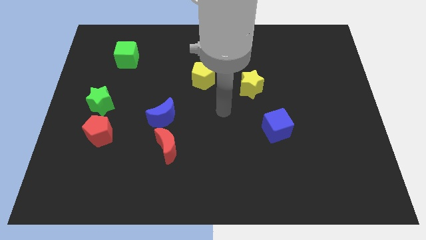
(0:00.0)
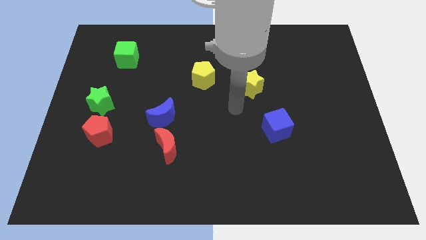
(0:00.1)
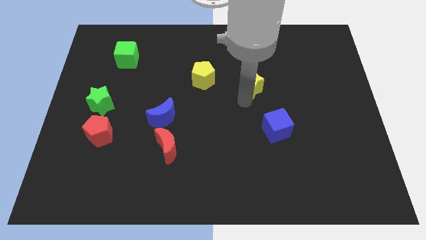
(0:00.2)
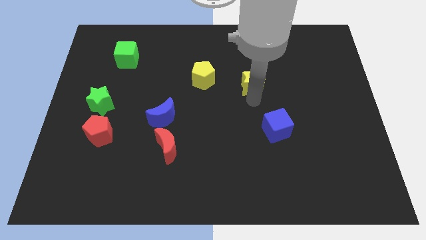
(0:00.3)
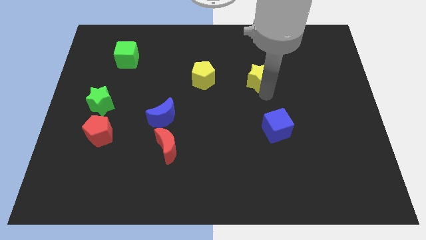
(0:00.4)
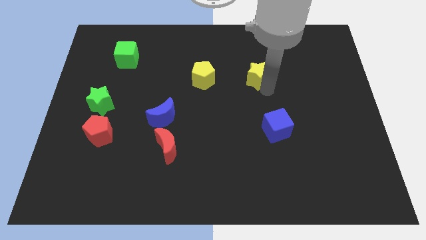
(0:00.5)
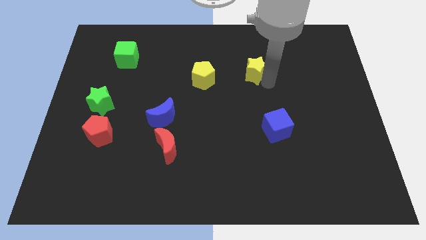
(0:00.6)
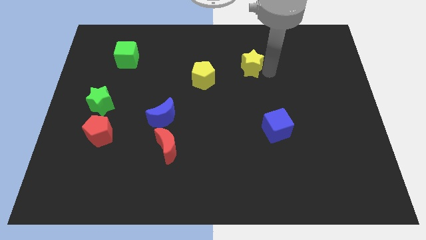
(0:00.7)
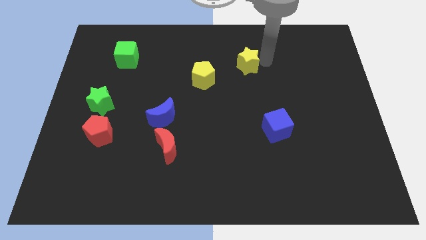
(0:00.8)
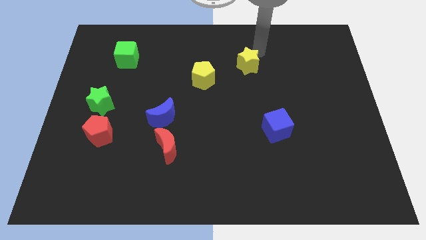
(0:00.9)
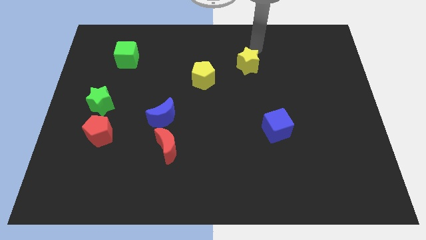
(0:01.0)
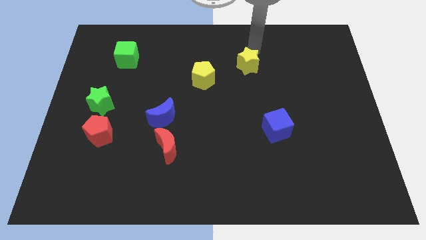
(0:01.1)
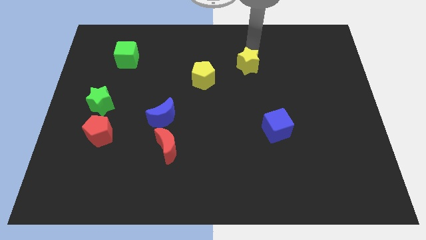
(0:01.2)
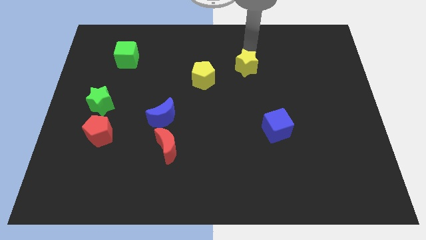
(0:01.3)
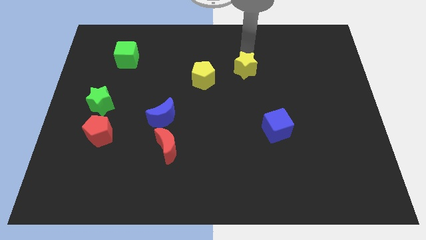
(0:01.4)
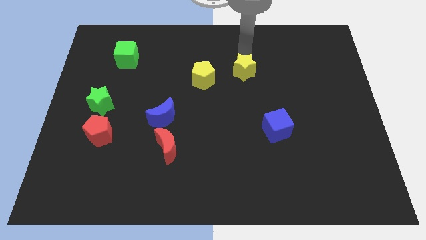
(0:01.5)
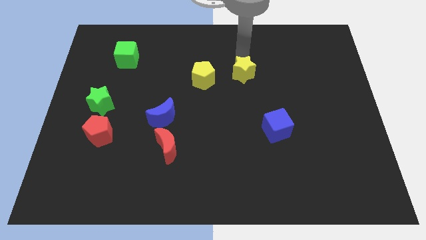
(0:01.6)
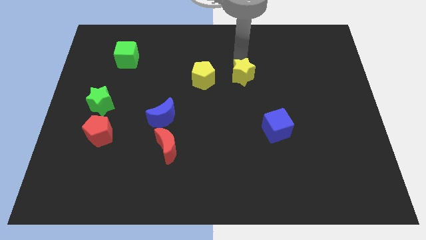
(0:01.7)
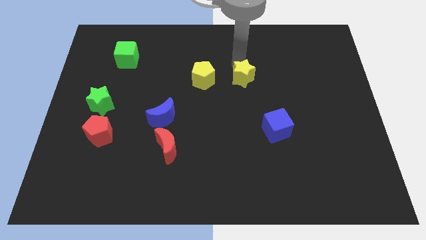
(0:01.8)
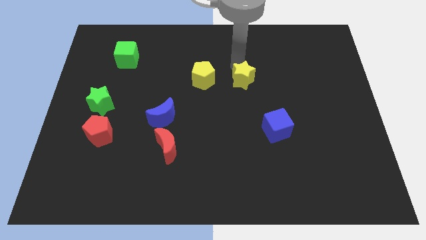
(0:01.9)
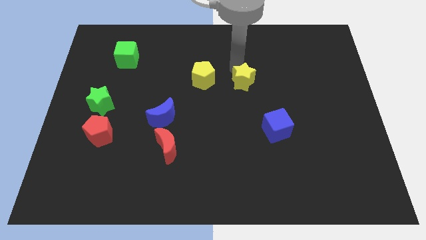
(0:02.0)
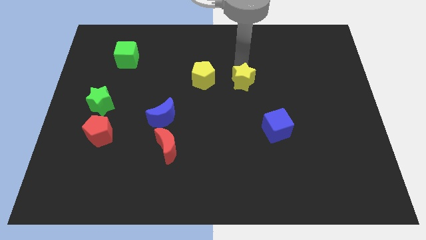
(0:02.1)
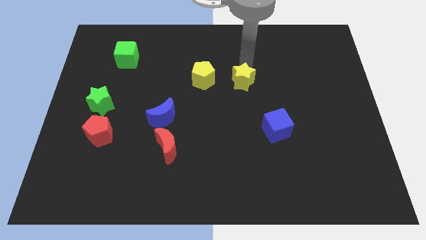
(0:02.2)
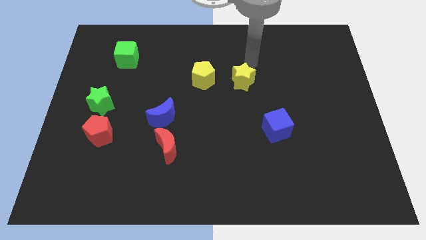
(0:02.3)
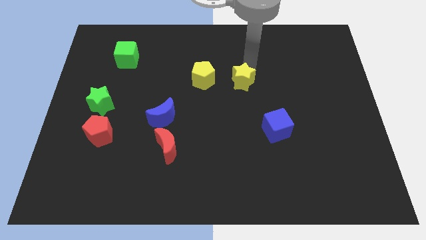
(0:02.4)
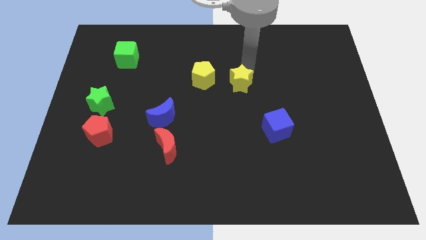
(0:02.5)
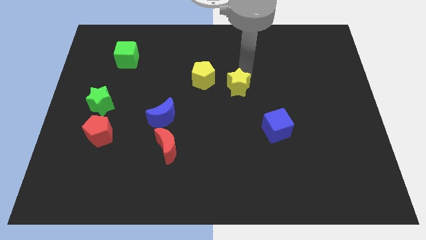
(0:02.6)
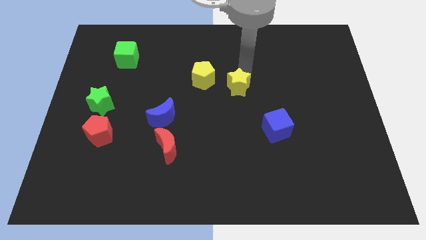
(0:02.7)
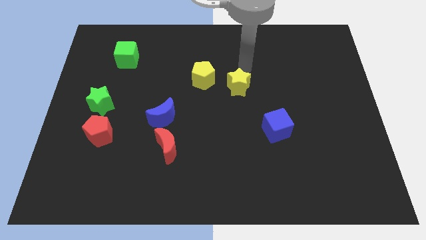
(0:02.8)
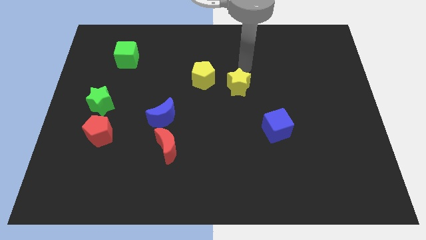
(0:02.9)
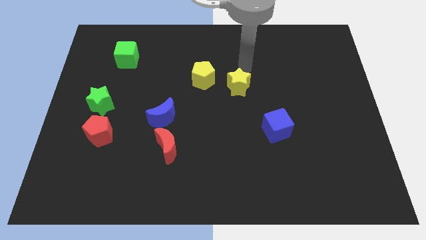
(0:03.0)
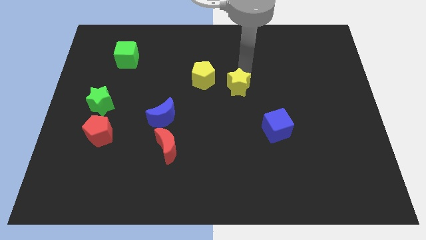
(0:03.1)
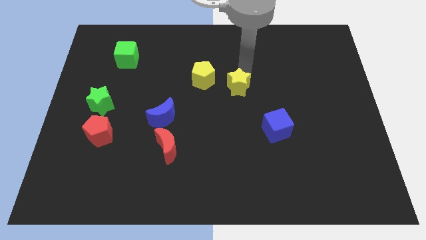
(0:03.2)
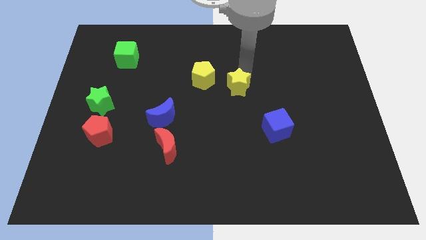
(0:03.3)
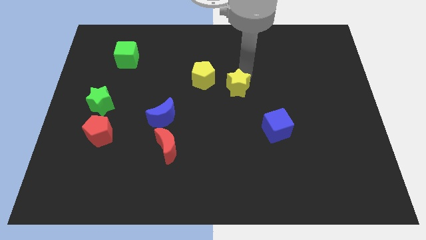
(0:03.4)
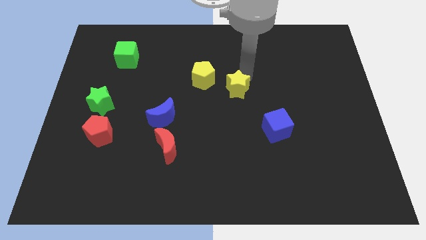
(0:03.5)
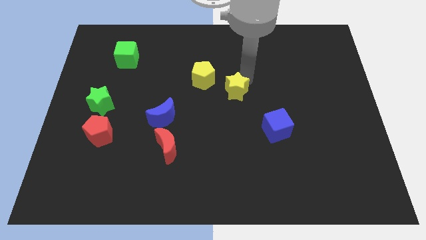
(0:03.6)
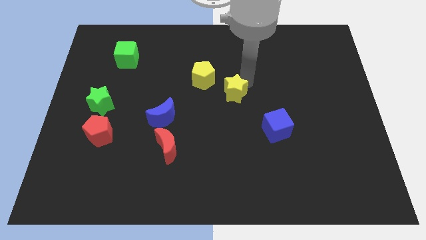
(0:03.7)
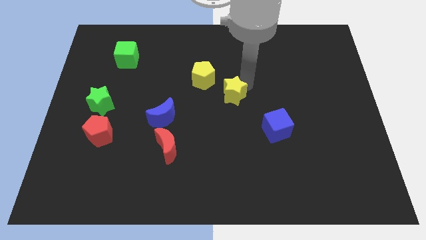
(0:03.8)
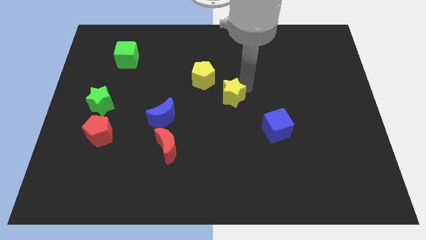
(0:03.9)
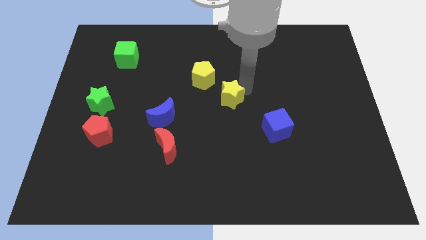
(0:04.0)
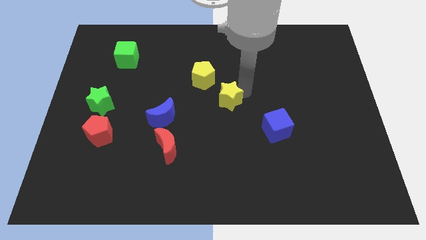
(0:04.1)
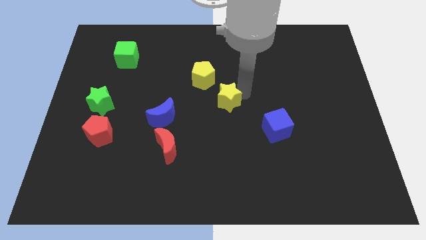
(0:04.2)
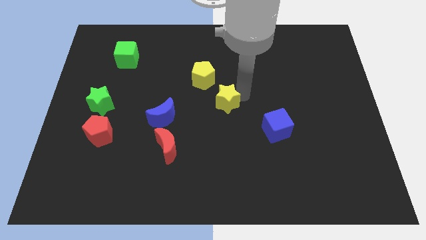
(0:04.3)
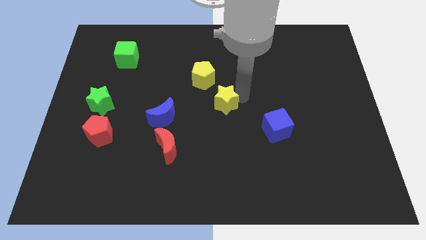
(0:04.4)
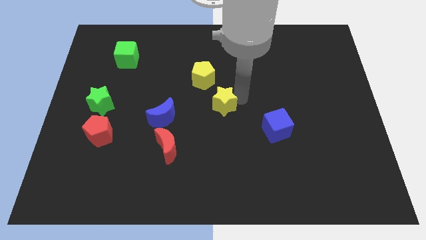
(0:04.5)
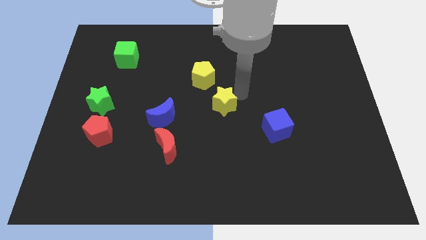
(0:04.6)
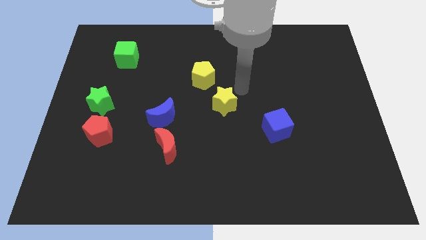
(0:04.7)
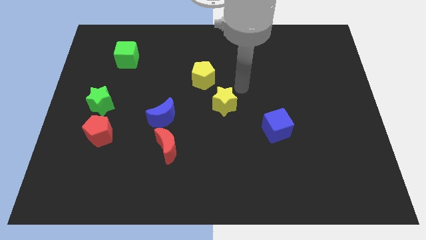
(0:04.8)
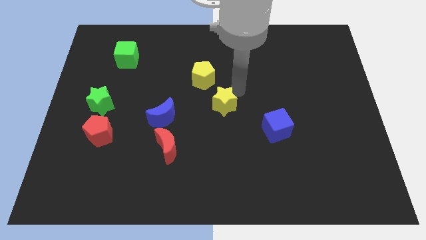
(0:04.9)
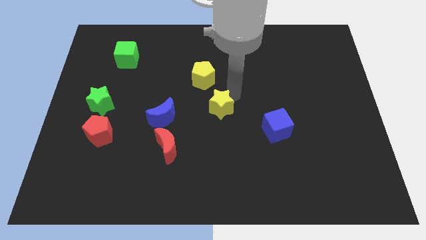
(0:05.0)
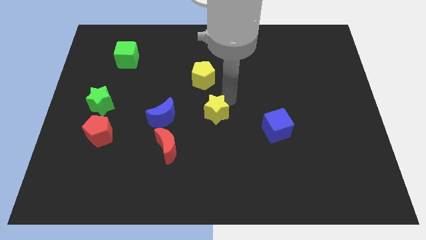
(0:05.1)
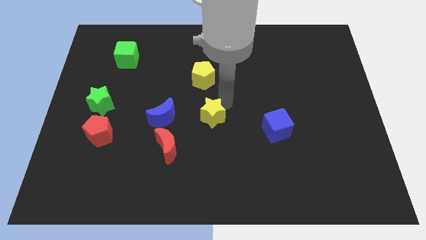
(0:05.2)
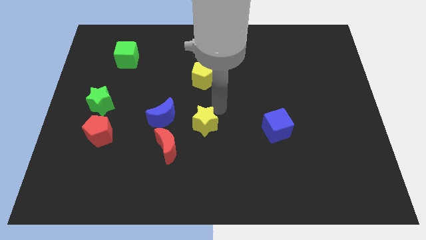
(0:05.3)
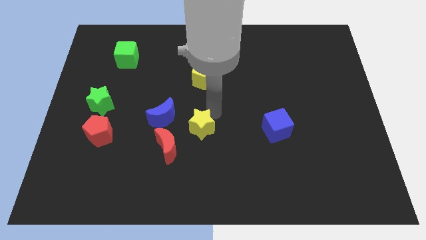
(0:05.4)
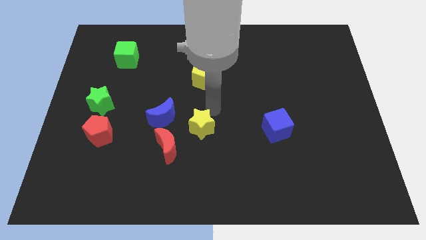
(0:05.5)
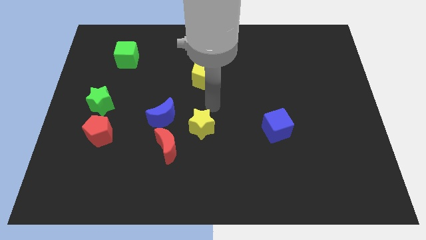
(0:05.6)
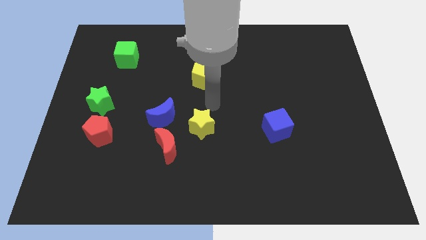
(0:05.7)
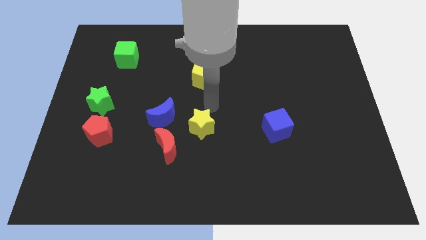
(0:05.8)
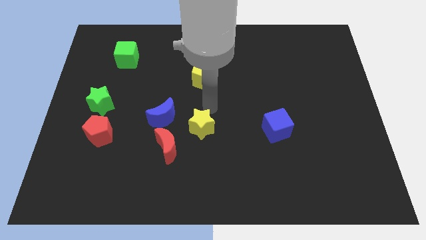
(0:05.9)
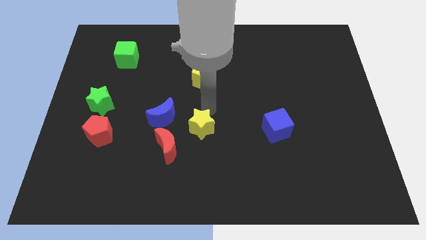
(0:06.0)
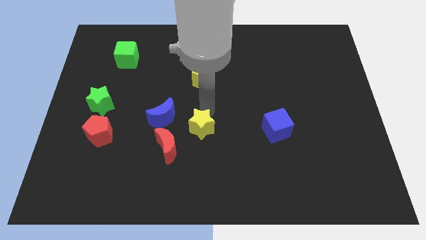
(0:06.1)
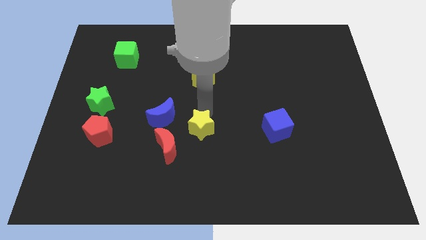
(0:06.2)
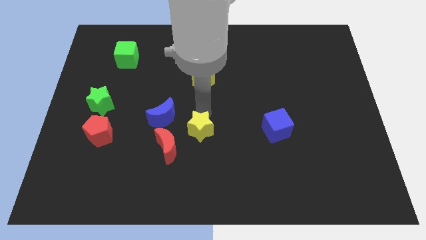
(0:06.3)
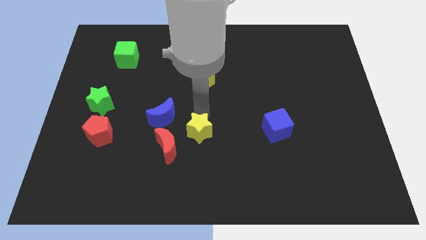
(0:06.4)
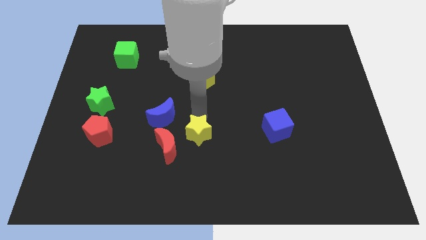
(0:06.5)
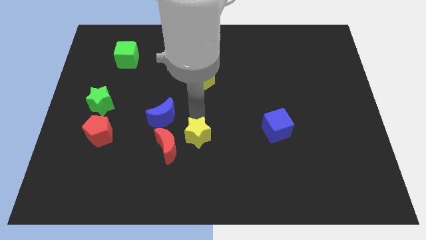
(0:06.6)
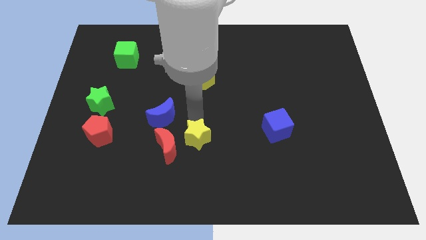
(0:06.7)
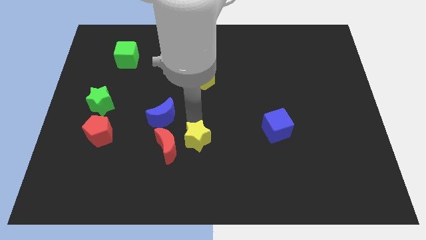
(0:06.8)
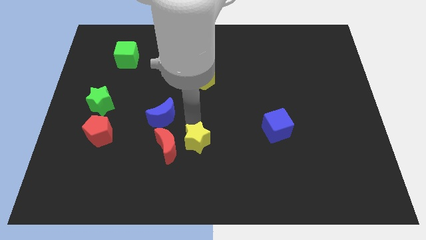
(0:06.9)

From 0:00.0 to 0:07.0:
slide the yellow star diagonally downwards and left

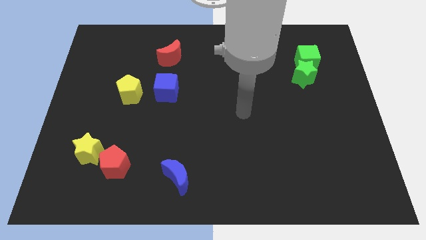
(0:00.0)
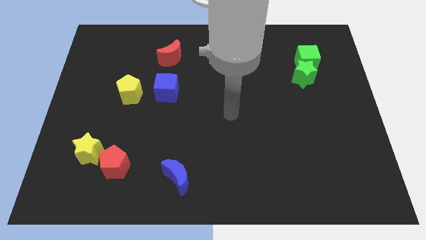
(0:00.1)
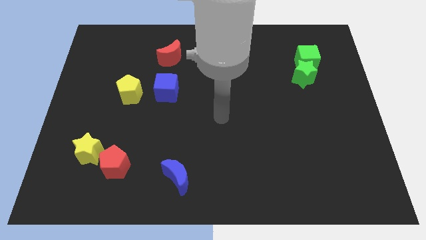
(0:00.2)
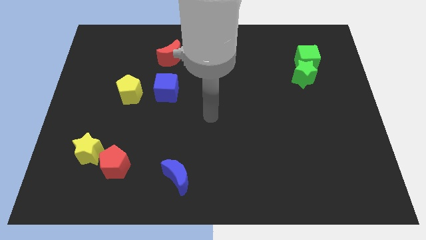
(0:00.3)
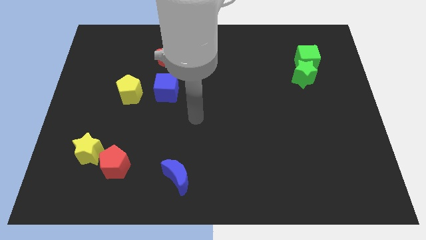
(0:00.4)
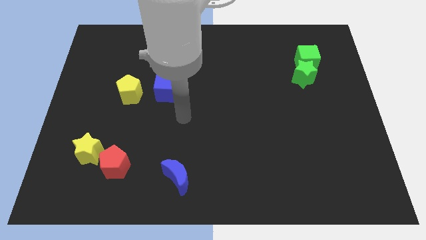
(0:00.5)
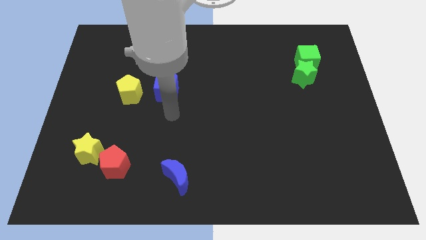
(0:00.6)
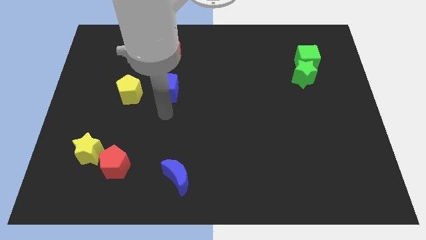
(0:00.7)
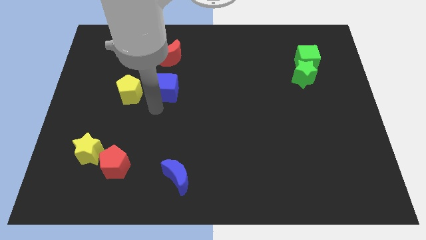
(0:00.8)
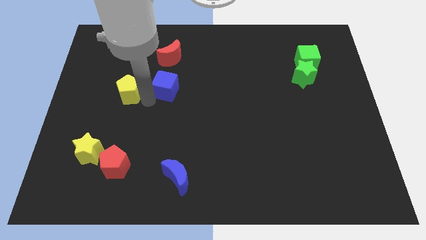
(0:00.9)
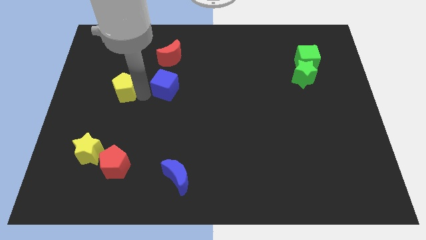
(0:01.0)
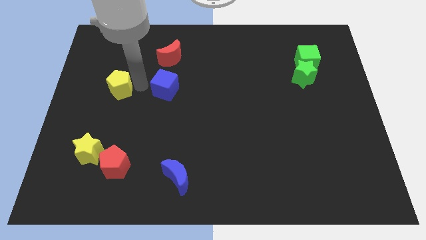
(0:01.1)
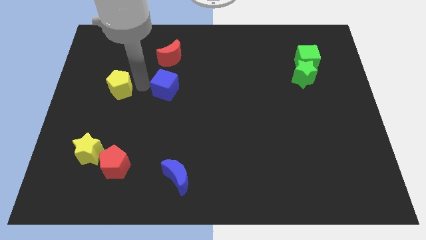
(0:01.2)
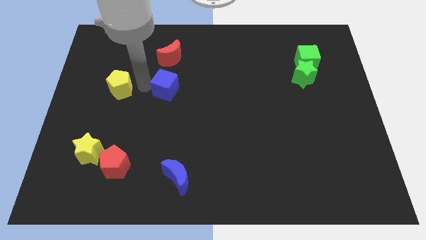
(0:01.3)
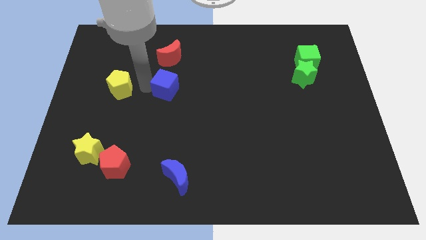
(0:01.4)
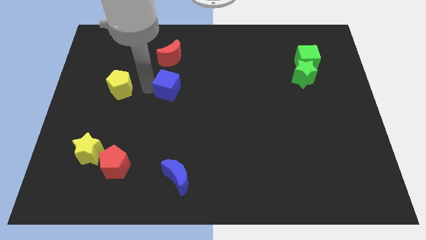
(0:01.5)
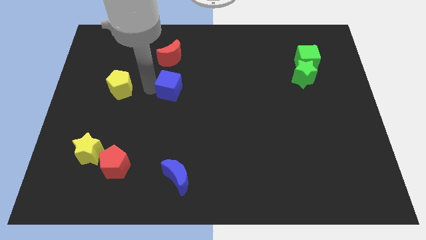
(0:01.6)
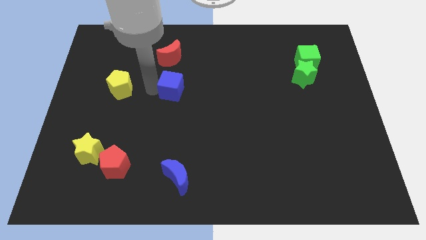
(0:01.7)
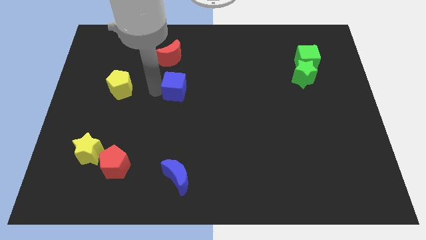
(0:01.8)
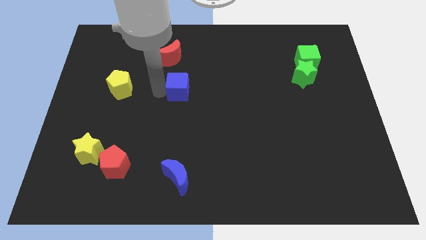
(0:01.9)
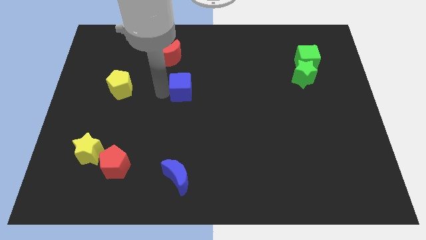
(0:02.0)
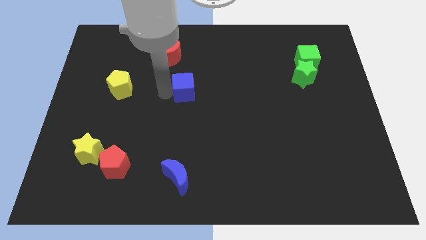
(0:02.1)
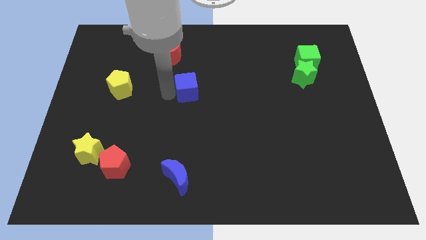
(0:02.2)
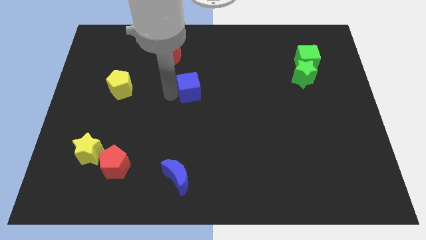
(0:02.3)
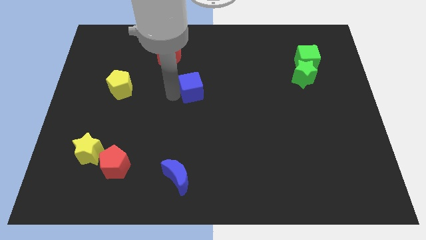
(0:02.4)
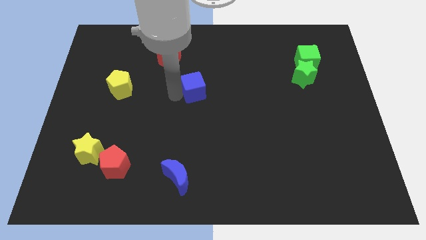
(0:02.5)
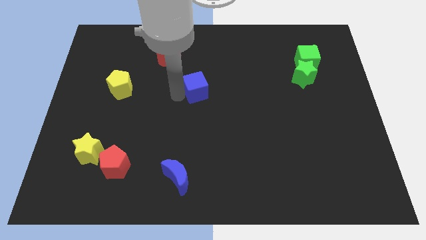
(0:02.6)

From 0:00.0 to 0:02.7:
move the blue cube right somewhat
